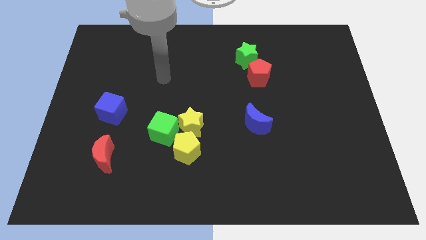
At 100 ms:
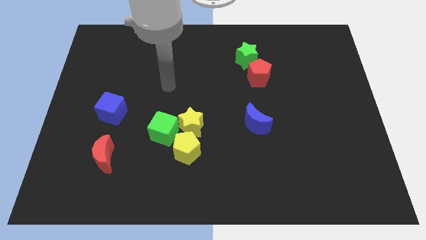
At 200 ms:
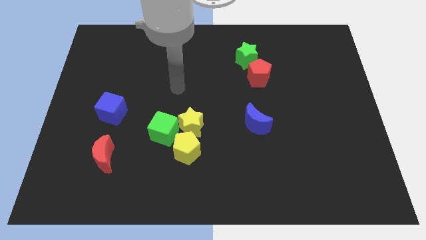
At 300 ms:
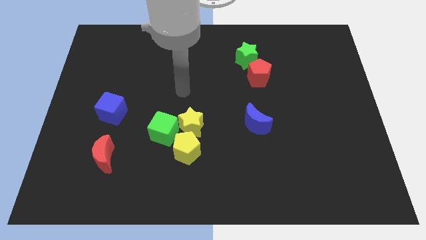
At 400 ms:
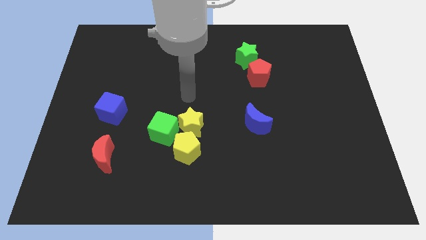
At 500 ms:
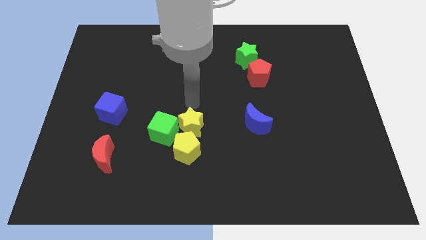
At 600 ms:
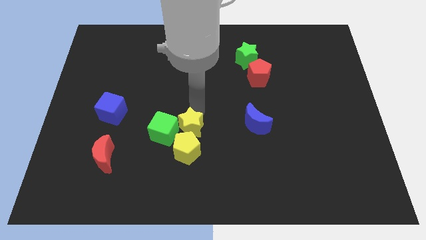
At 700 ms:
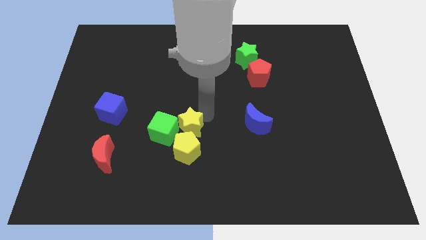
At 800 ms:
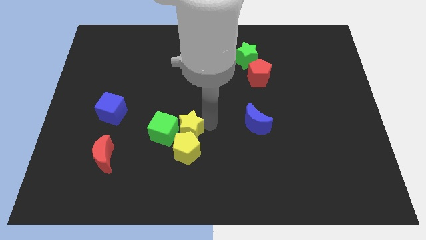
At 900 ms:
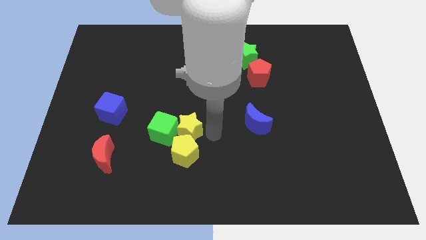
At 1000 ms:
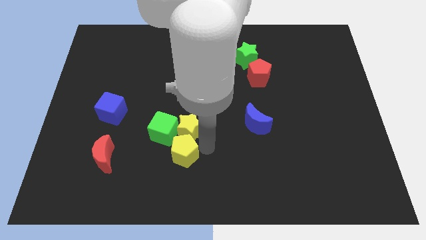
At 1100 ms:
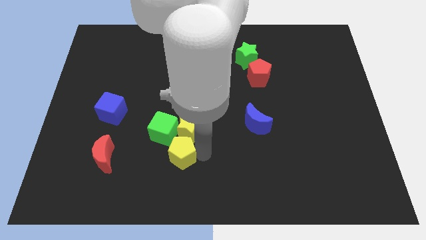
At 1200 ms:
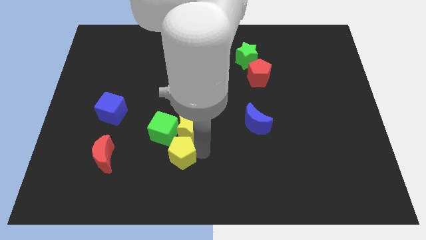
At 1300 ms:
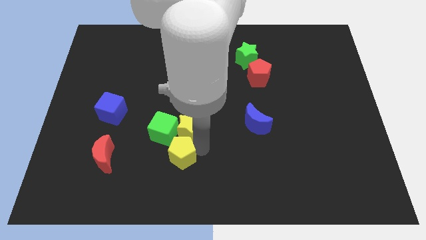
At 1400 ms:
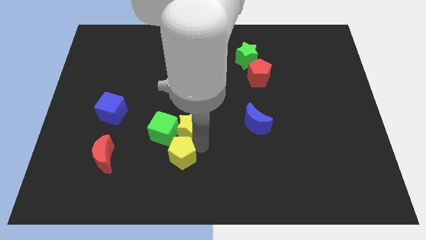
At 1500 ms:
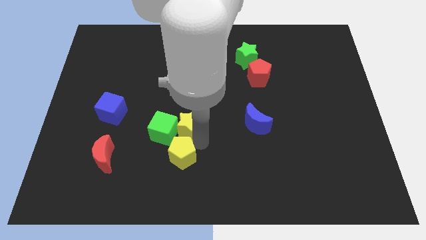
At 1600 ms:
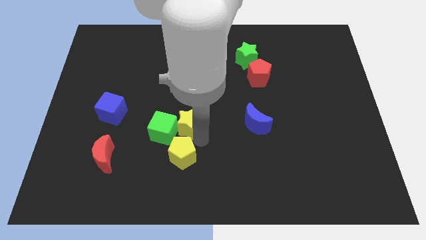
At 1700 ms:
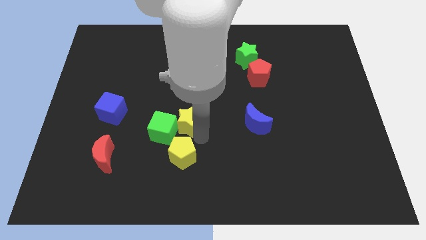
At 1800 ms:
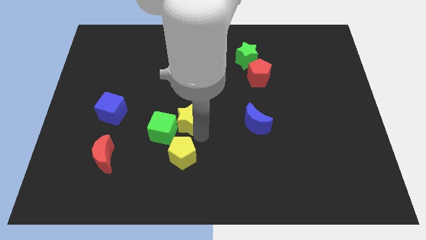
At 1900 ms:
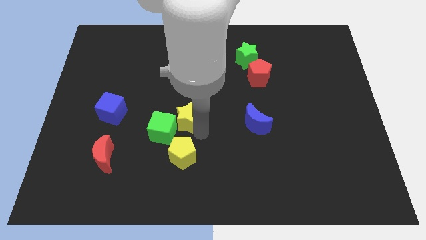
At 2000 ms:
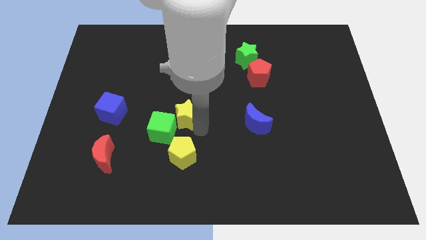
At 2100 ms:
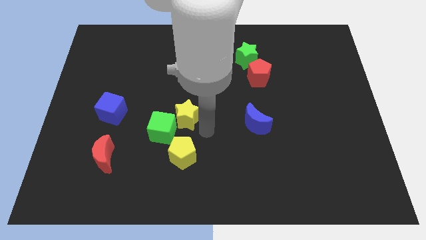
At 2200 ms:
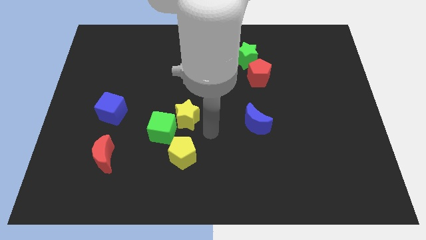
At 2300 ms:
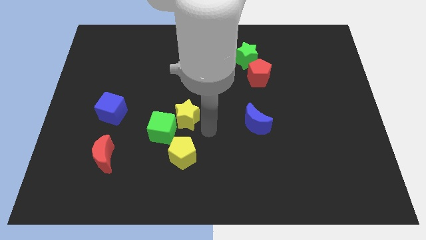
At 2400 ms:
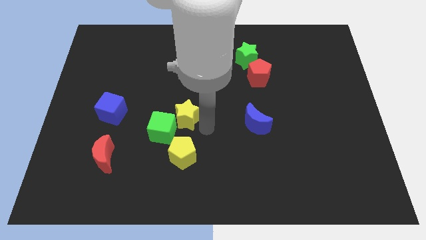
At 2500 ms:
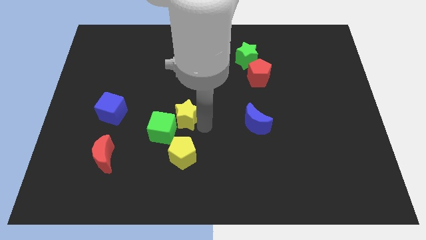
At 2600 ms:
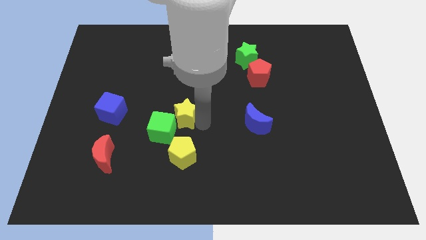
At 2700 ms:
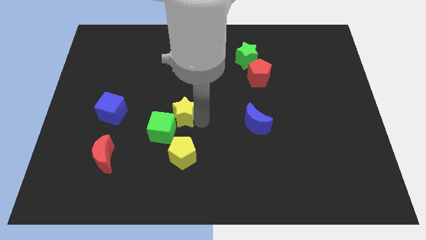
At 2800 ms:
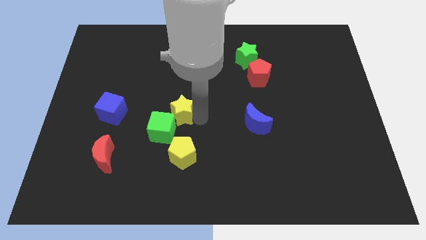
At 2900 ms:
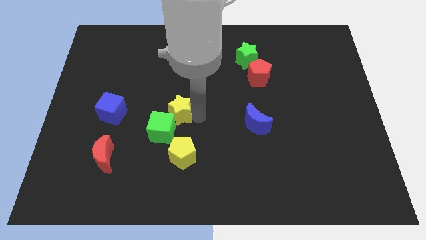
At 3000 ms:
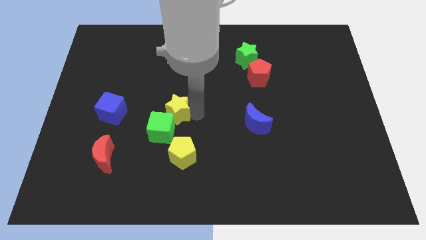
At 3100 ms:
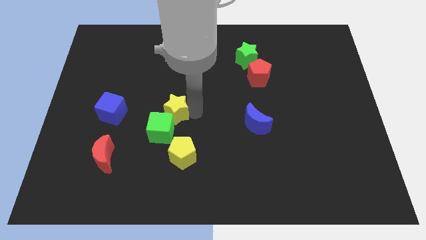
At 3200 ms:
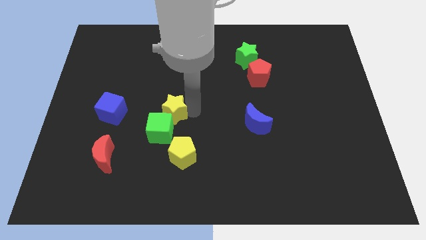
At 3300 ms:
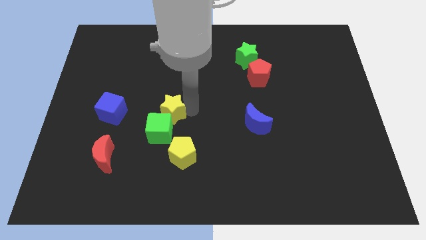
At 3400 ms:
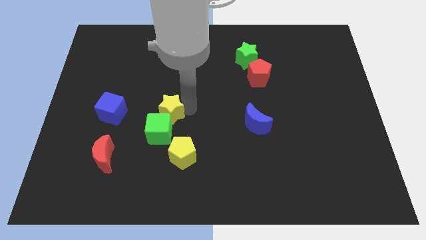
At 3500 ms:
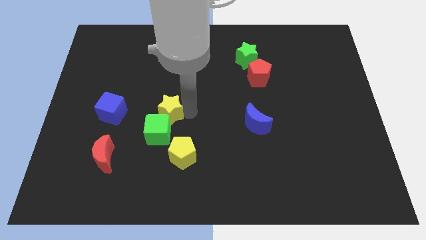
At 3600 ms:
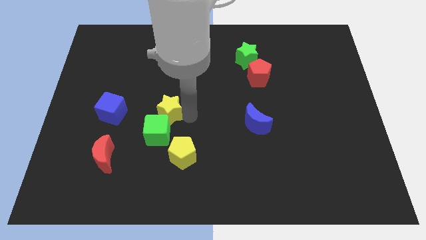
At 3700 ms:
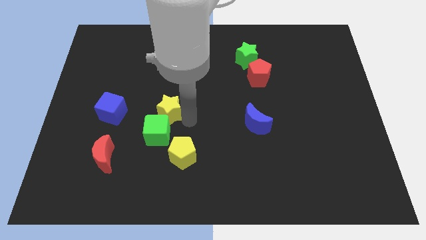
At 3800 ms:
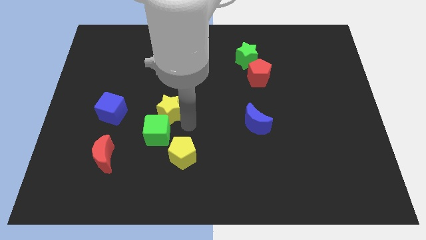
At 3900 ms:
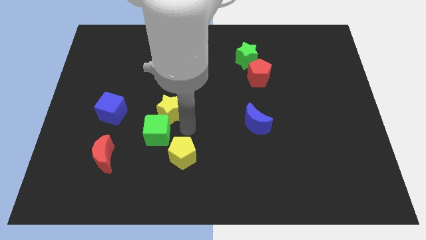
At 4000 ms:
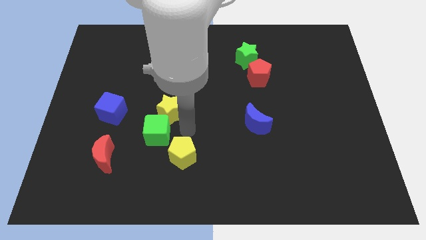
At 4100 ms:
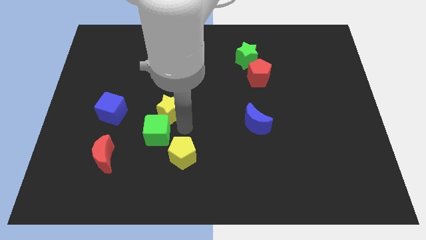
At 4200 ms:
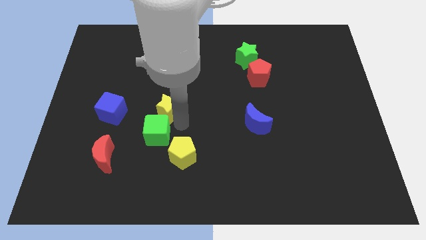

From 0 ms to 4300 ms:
slide the yellow star up and to the left diagonally a bit

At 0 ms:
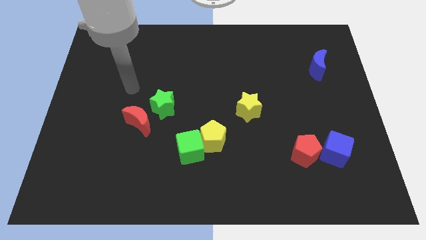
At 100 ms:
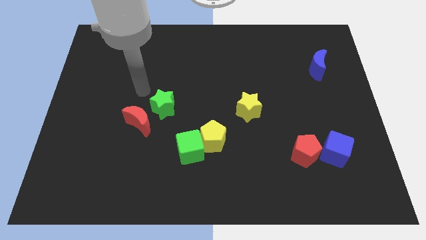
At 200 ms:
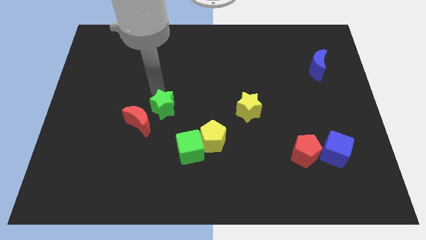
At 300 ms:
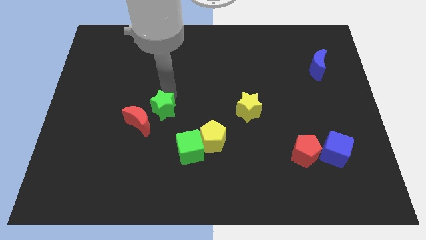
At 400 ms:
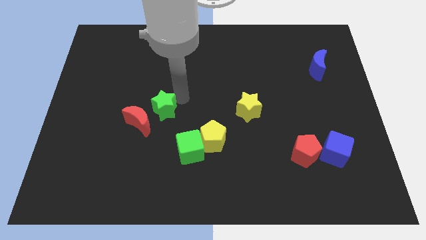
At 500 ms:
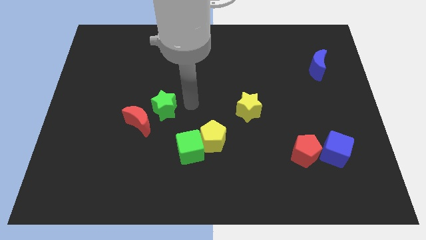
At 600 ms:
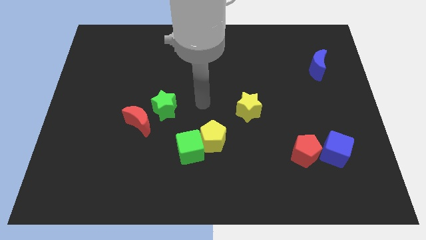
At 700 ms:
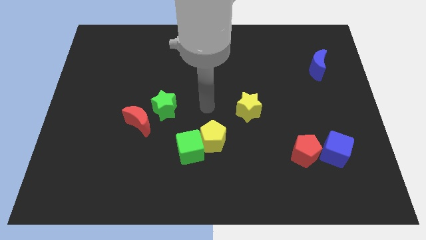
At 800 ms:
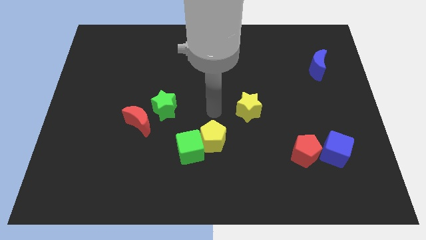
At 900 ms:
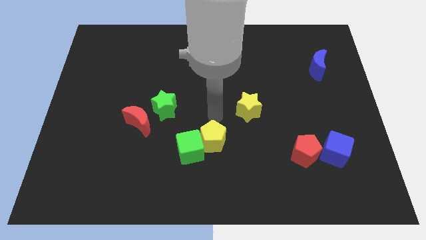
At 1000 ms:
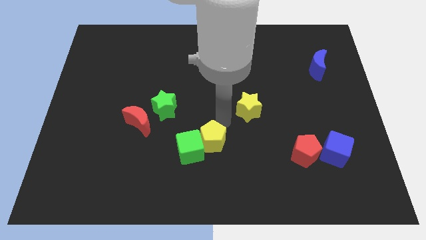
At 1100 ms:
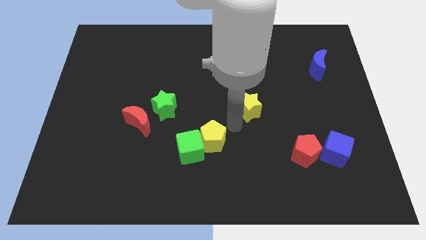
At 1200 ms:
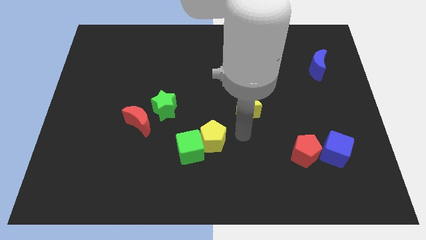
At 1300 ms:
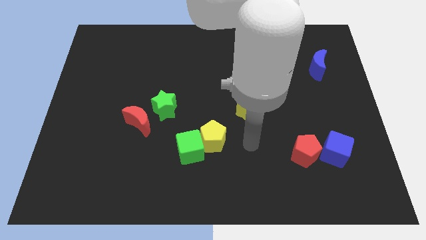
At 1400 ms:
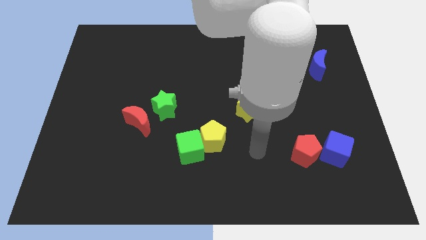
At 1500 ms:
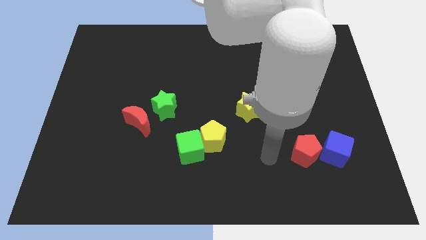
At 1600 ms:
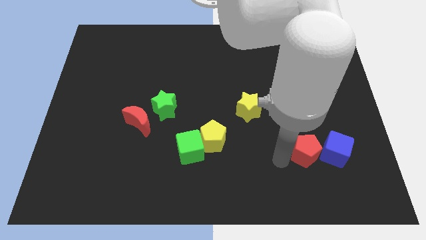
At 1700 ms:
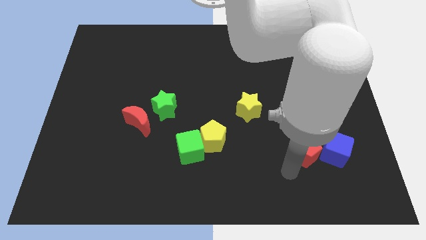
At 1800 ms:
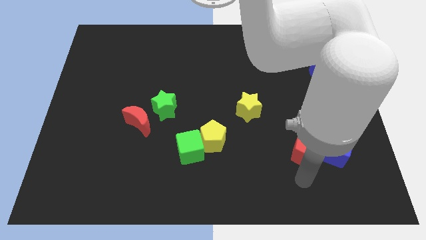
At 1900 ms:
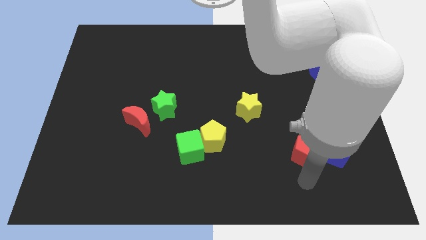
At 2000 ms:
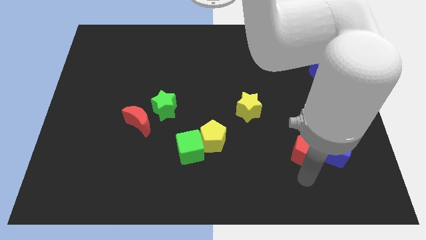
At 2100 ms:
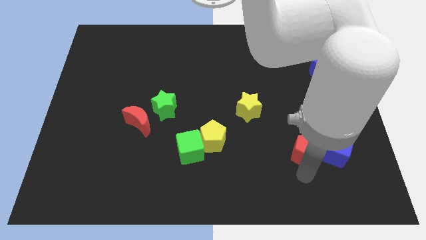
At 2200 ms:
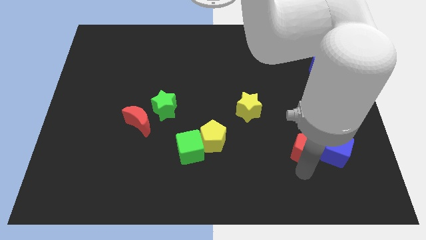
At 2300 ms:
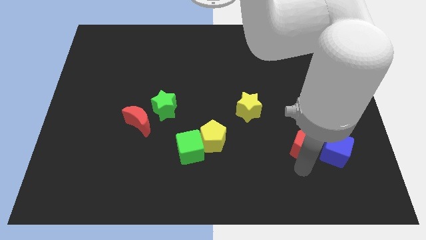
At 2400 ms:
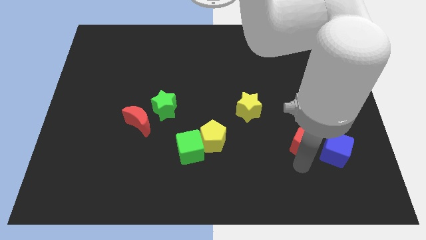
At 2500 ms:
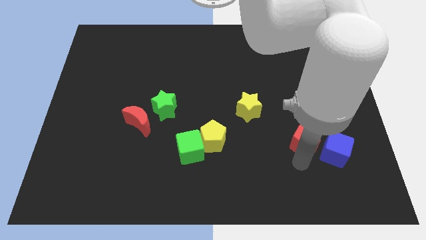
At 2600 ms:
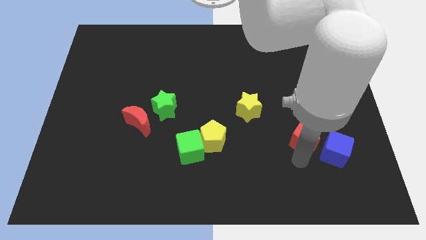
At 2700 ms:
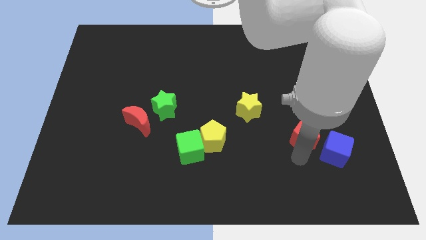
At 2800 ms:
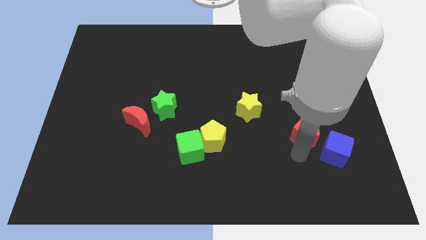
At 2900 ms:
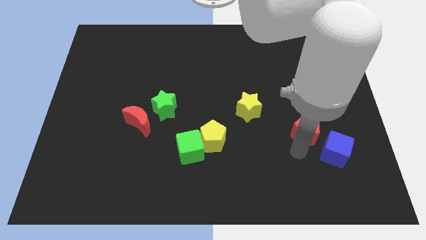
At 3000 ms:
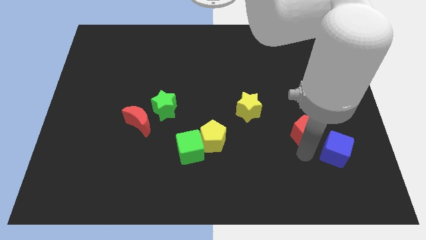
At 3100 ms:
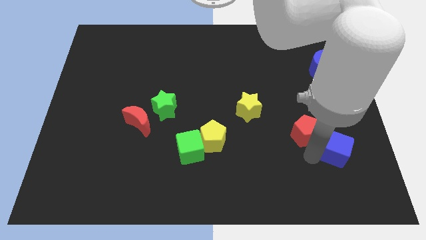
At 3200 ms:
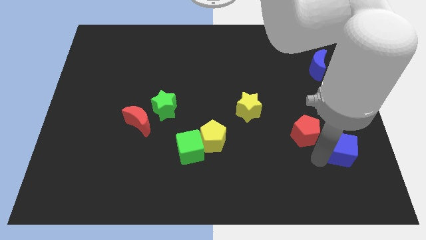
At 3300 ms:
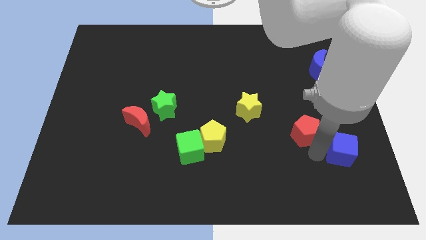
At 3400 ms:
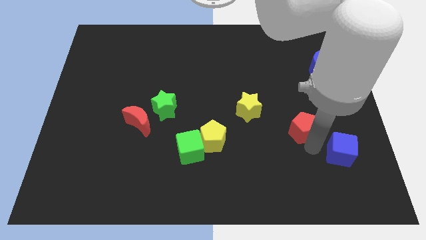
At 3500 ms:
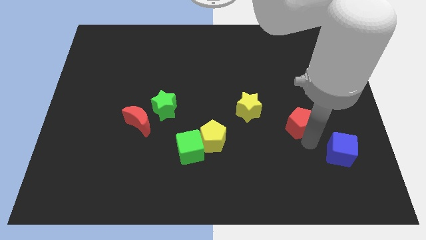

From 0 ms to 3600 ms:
slightly push the red pentagon upwards

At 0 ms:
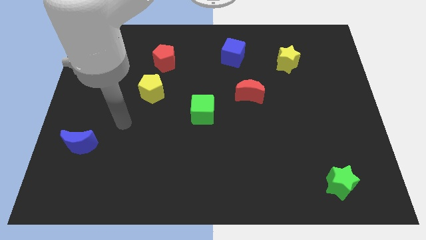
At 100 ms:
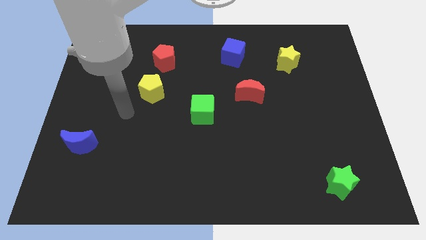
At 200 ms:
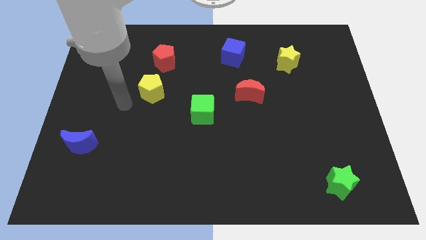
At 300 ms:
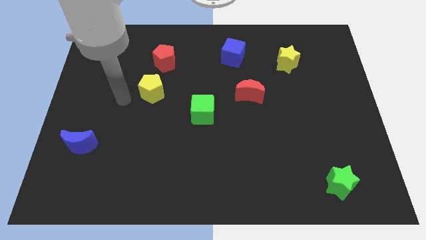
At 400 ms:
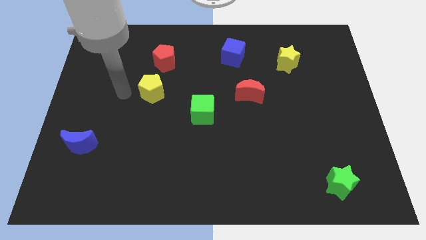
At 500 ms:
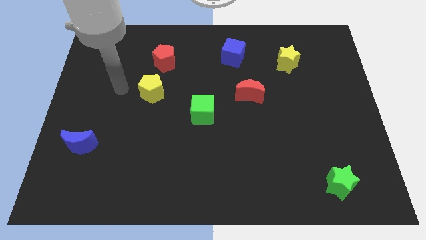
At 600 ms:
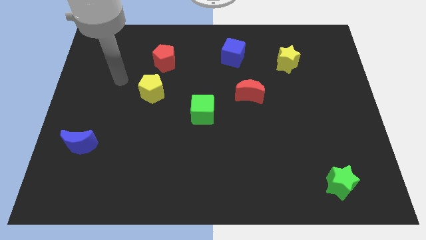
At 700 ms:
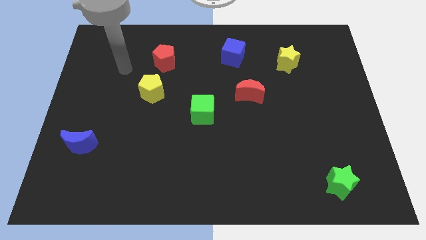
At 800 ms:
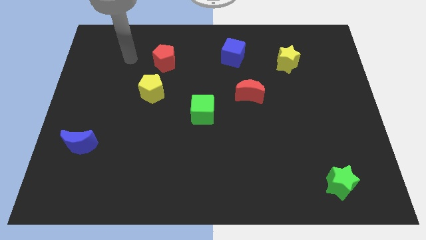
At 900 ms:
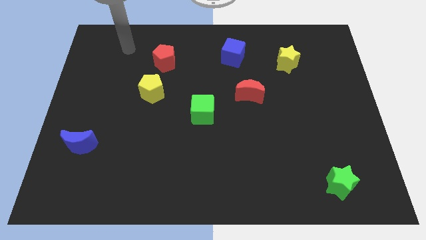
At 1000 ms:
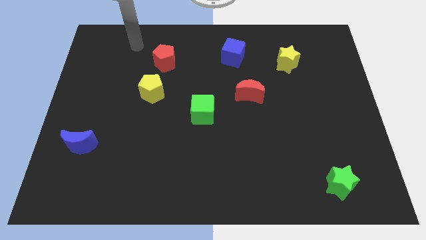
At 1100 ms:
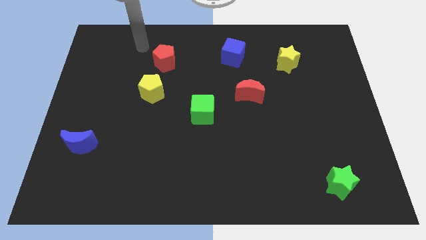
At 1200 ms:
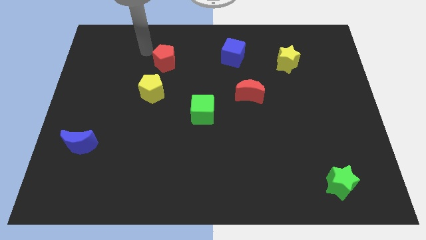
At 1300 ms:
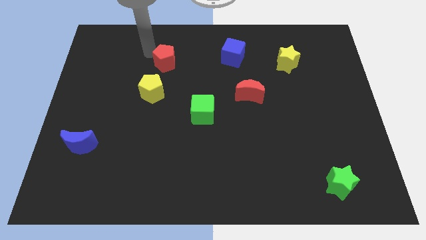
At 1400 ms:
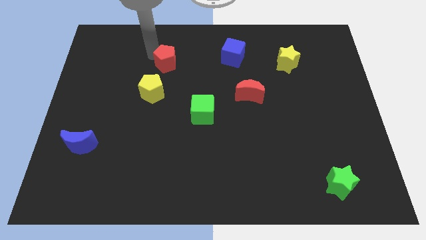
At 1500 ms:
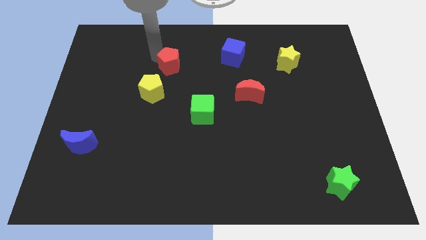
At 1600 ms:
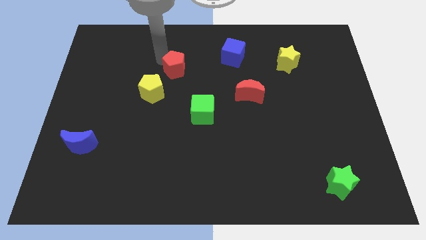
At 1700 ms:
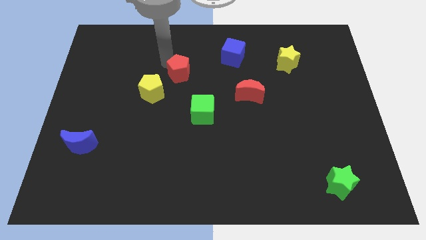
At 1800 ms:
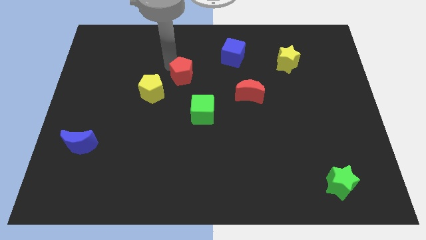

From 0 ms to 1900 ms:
slightly push the red pentagon down and right
